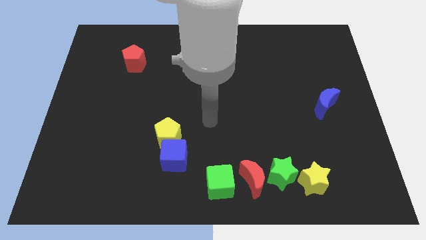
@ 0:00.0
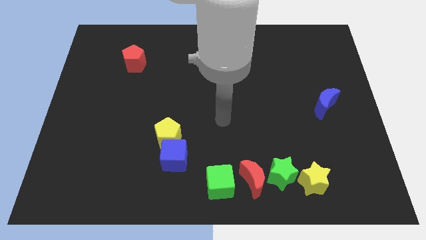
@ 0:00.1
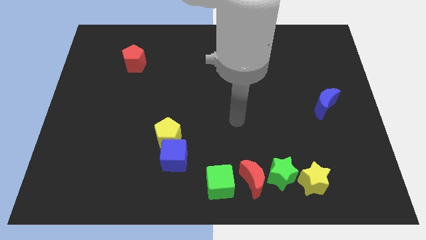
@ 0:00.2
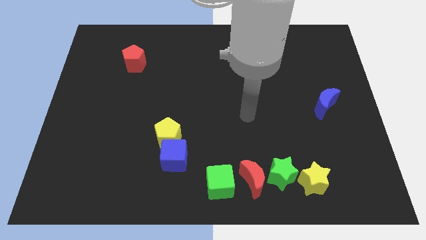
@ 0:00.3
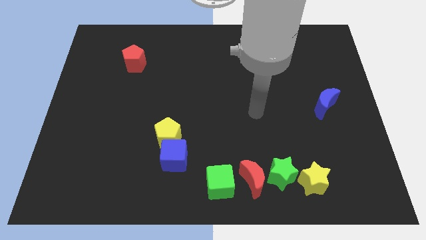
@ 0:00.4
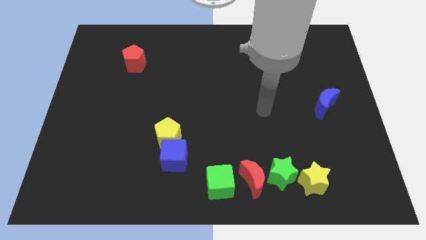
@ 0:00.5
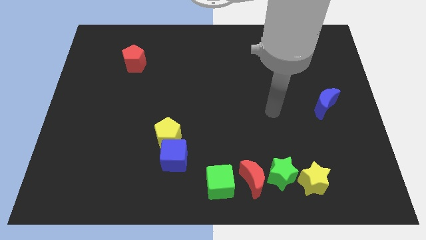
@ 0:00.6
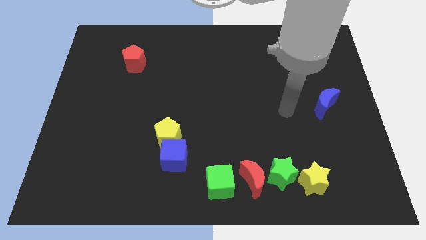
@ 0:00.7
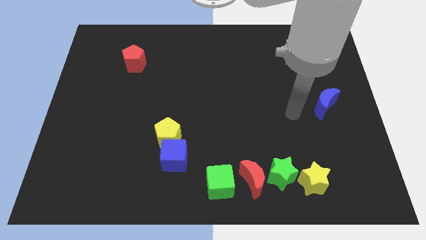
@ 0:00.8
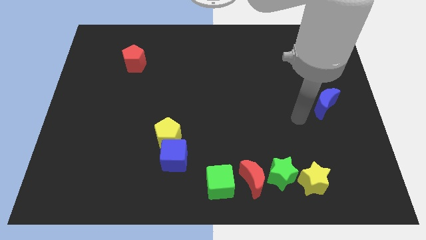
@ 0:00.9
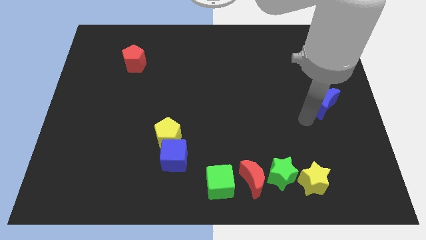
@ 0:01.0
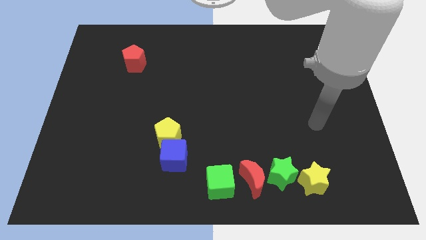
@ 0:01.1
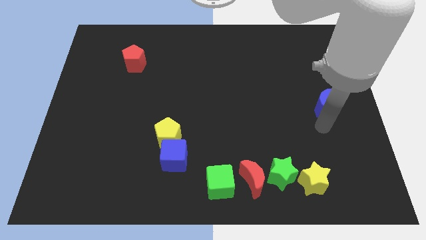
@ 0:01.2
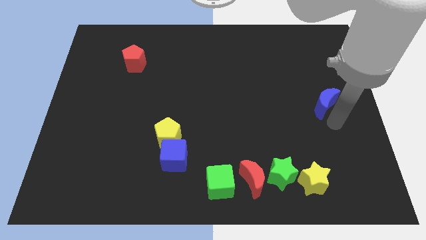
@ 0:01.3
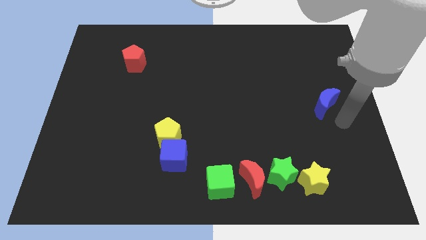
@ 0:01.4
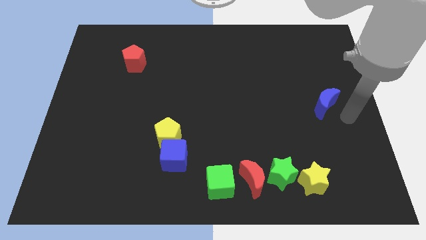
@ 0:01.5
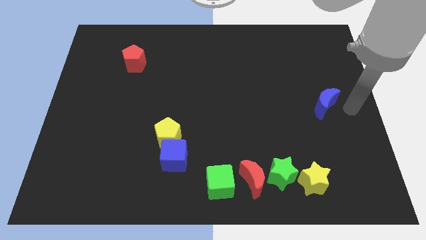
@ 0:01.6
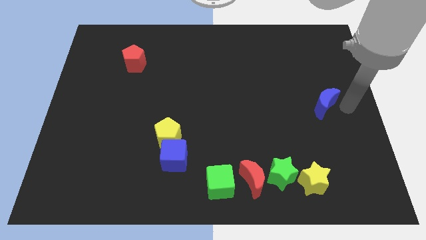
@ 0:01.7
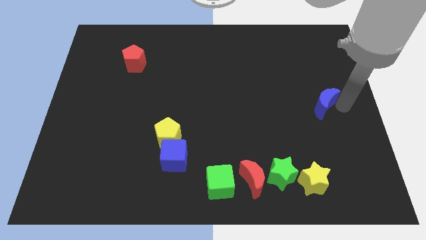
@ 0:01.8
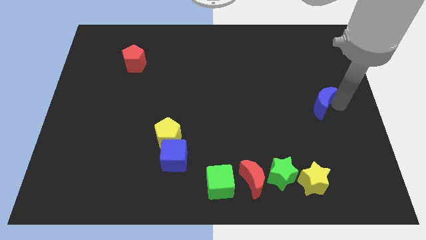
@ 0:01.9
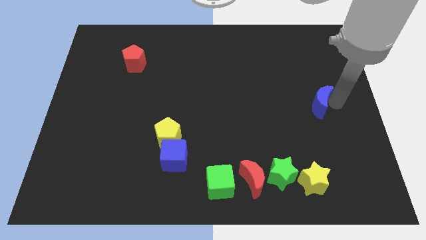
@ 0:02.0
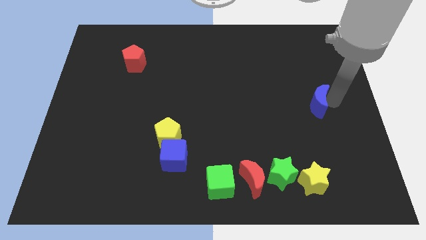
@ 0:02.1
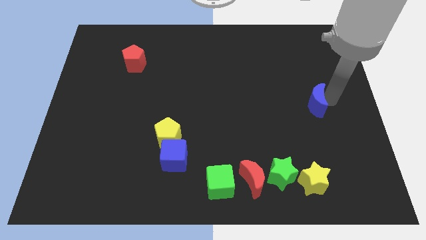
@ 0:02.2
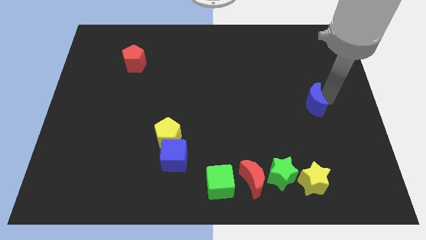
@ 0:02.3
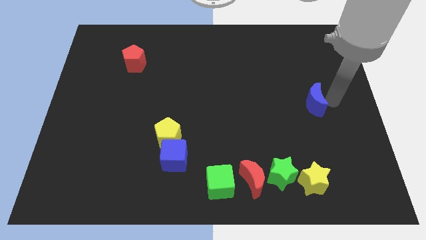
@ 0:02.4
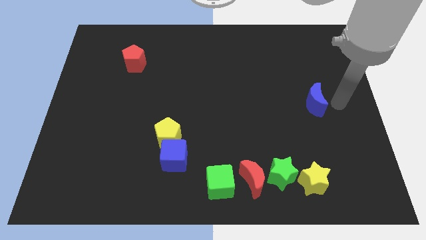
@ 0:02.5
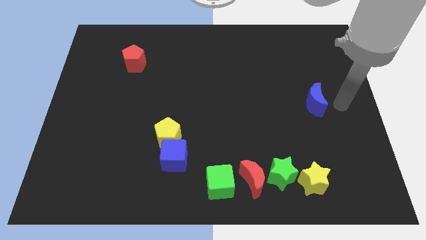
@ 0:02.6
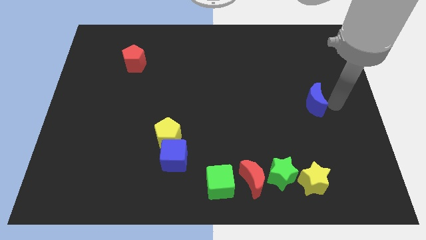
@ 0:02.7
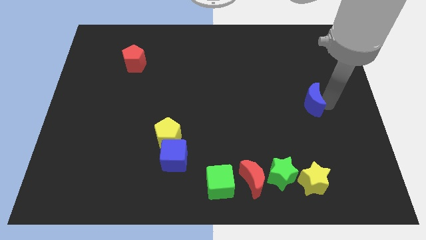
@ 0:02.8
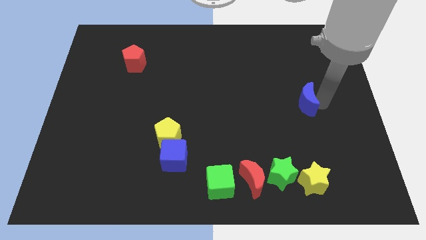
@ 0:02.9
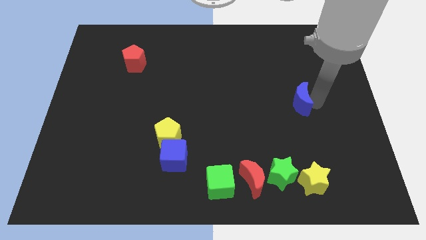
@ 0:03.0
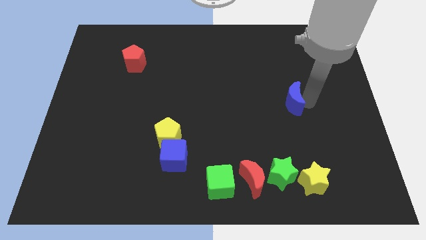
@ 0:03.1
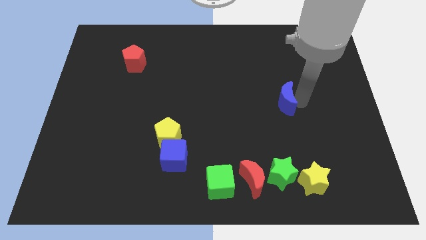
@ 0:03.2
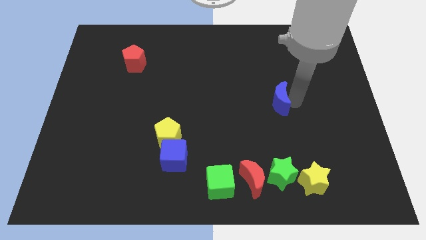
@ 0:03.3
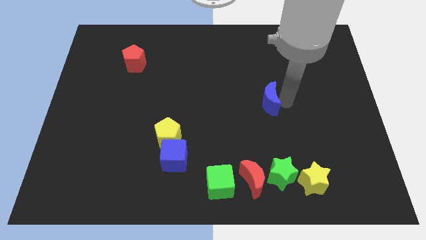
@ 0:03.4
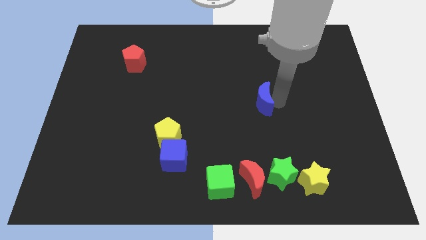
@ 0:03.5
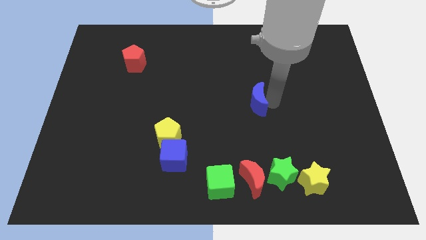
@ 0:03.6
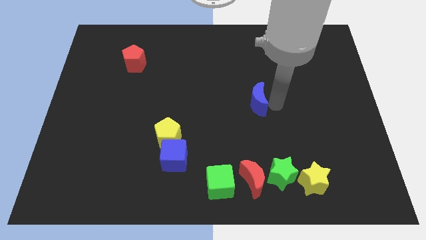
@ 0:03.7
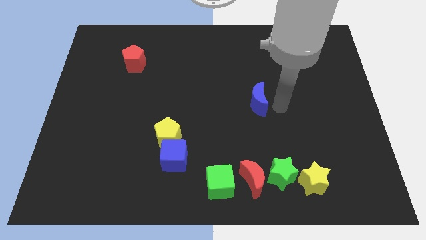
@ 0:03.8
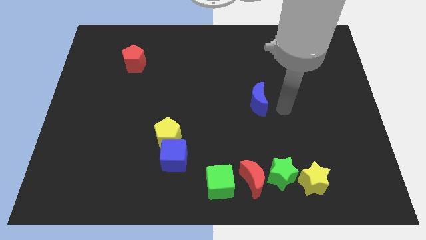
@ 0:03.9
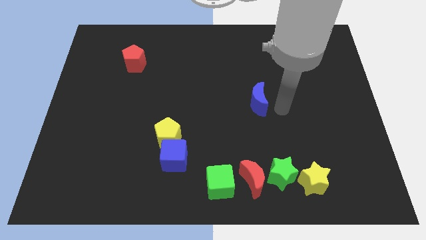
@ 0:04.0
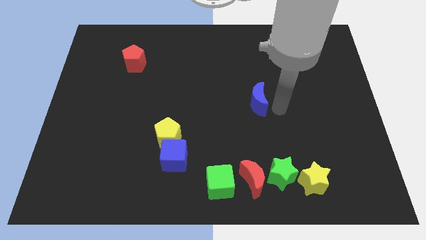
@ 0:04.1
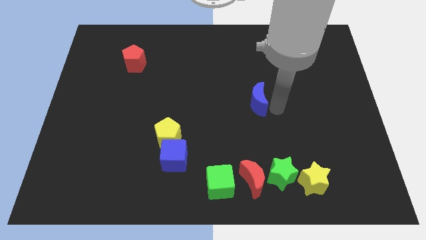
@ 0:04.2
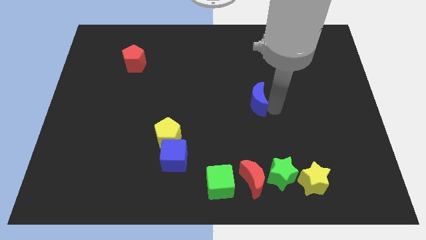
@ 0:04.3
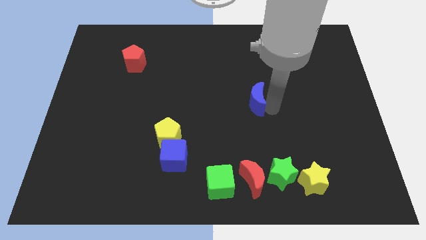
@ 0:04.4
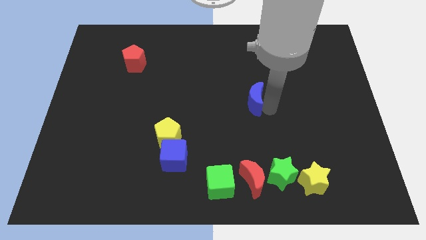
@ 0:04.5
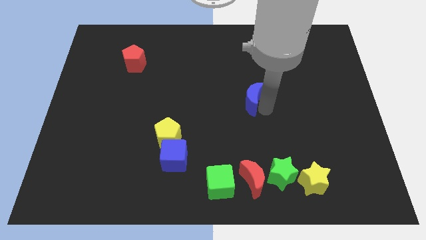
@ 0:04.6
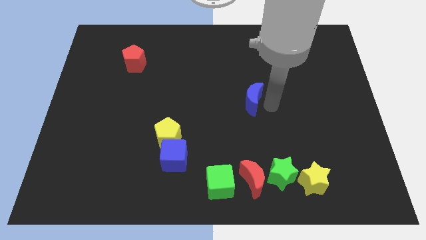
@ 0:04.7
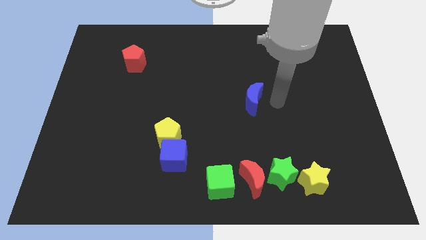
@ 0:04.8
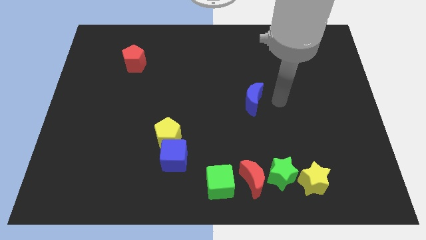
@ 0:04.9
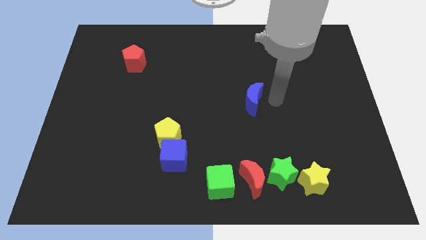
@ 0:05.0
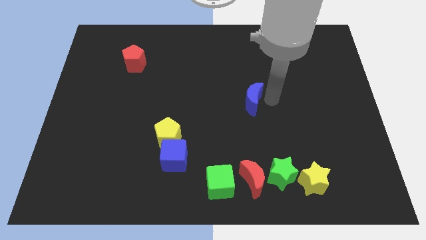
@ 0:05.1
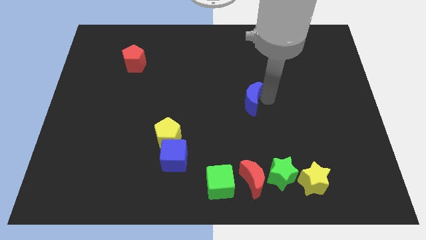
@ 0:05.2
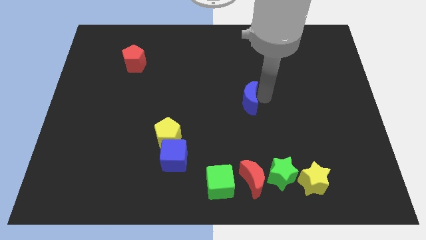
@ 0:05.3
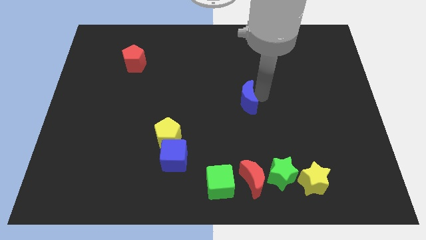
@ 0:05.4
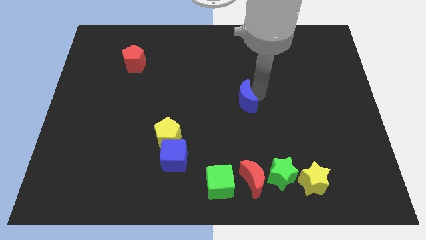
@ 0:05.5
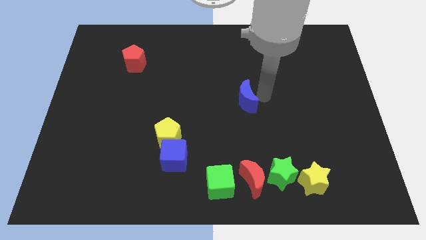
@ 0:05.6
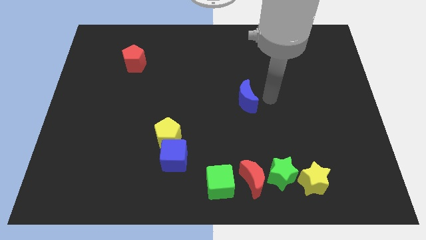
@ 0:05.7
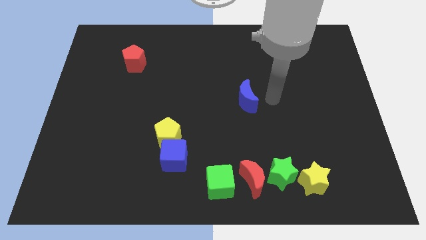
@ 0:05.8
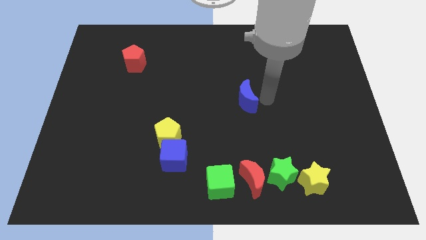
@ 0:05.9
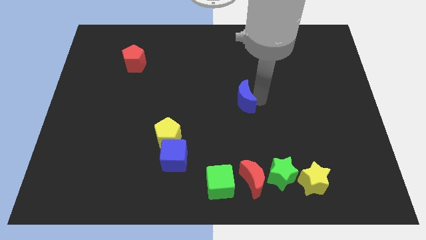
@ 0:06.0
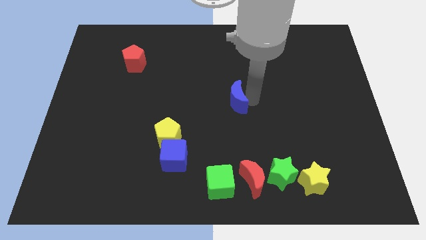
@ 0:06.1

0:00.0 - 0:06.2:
slide the blue moon to the left

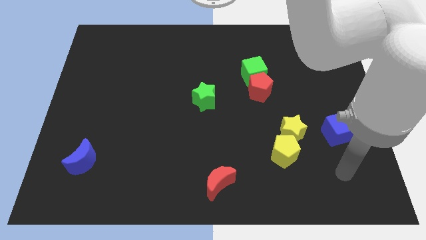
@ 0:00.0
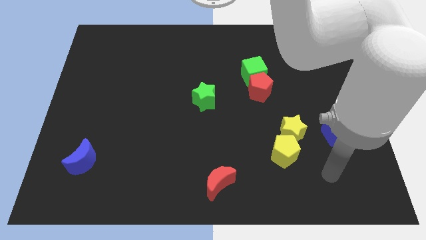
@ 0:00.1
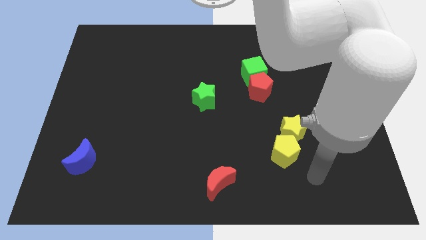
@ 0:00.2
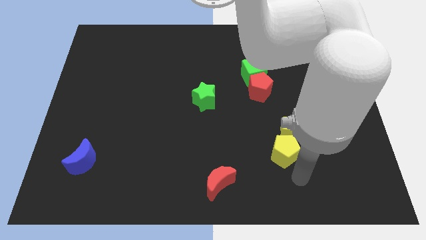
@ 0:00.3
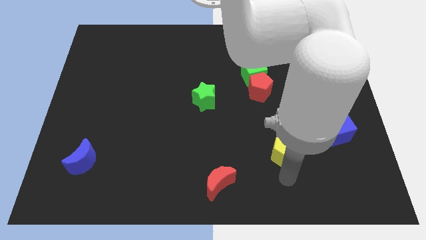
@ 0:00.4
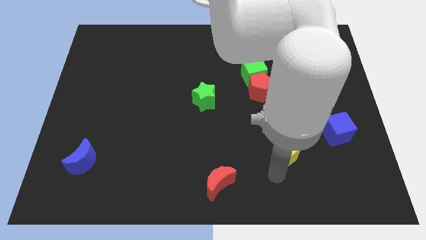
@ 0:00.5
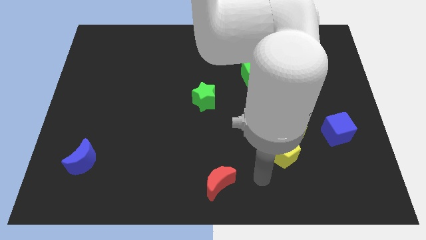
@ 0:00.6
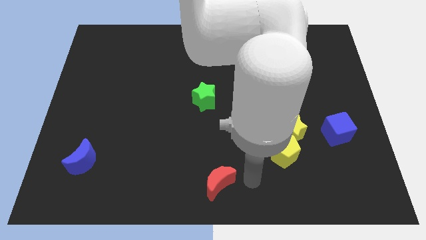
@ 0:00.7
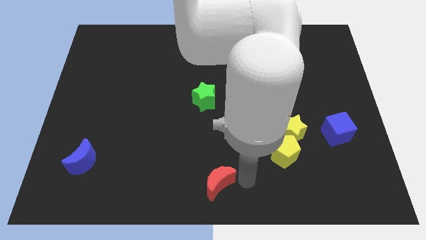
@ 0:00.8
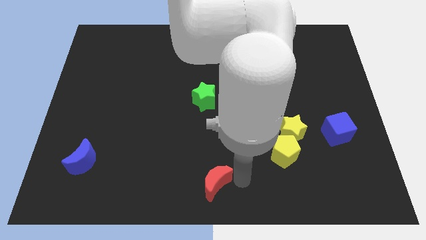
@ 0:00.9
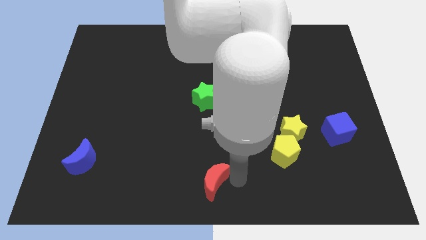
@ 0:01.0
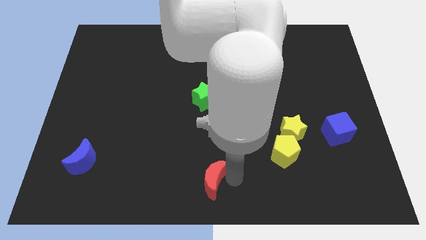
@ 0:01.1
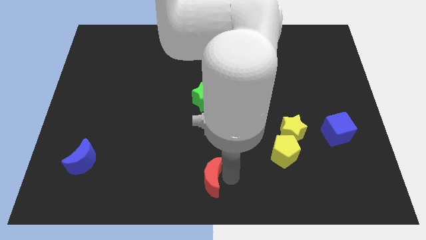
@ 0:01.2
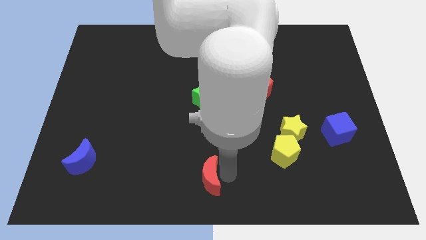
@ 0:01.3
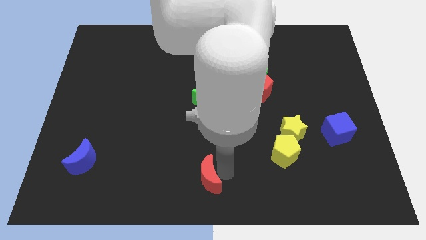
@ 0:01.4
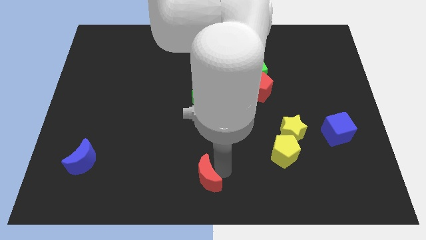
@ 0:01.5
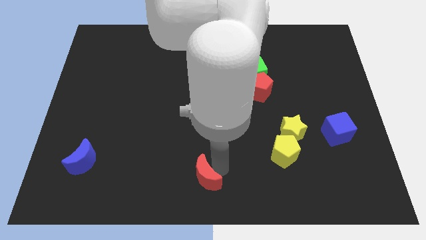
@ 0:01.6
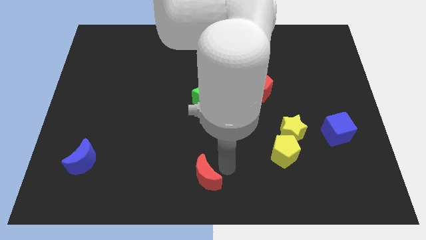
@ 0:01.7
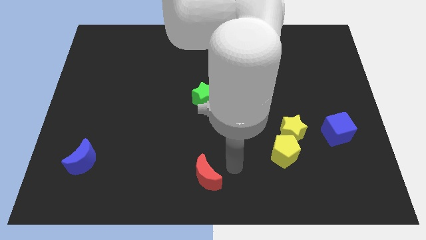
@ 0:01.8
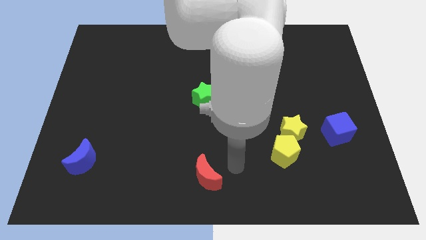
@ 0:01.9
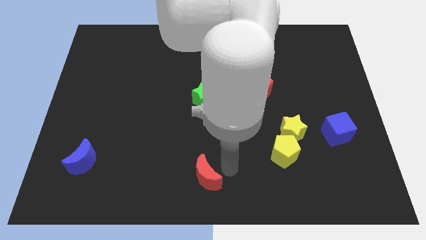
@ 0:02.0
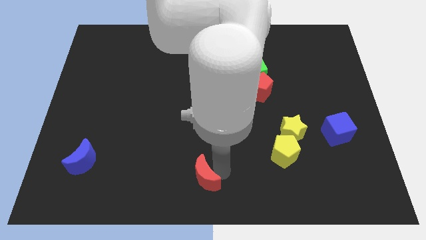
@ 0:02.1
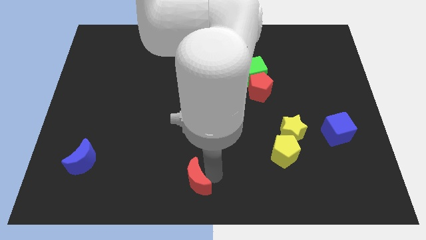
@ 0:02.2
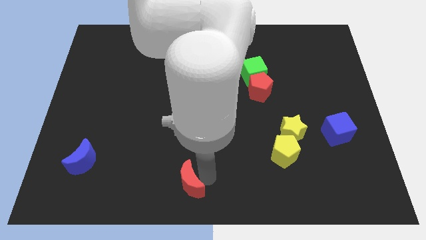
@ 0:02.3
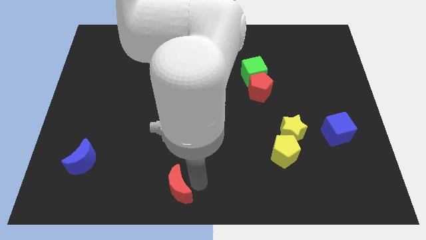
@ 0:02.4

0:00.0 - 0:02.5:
slightly slide the red moon to the left
